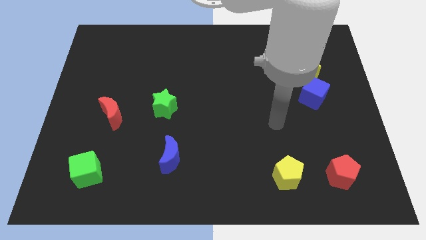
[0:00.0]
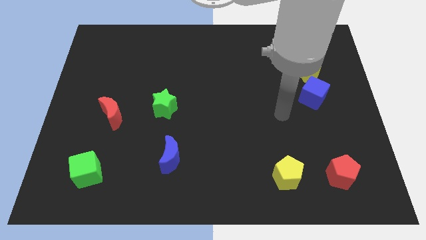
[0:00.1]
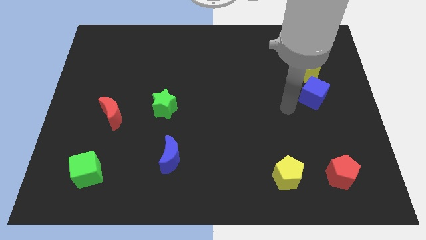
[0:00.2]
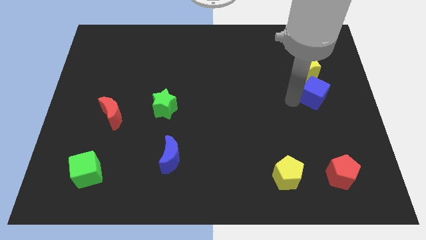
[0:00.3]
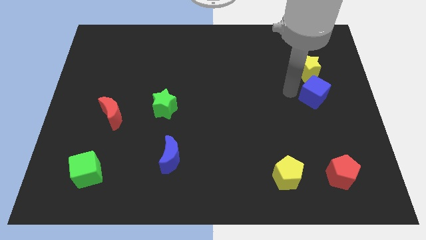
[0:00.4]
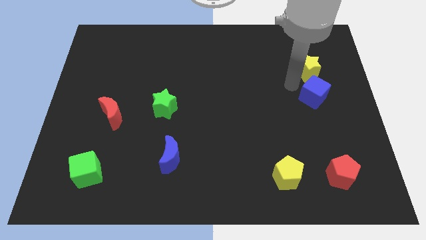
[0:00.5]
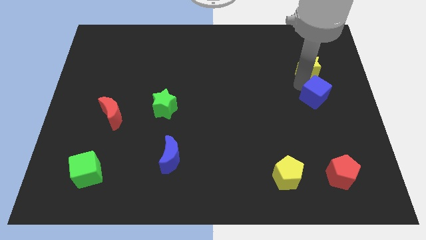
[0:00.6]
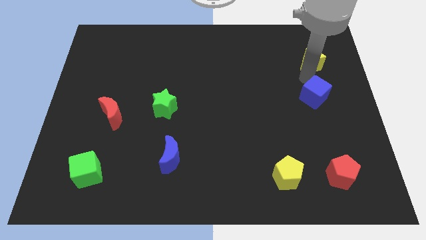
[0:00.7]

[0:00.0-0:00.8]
move the blue cube away from the yellow star

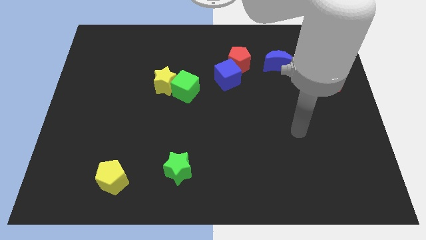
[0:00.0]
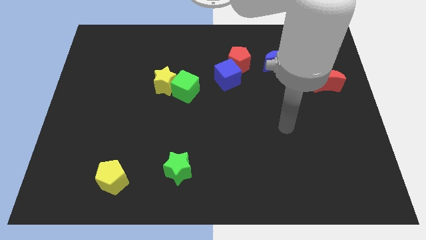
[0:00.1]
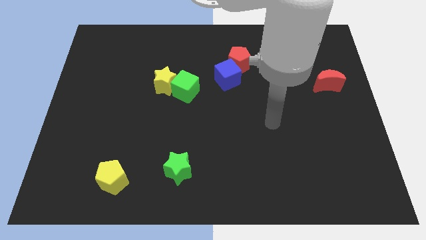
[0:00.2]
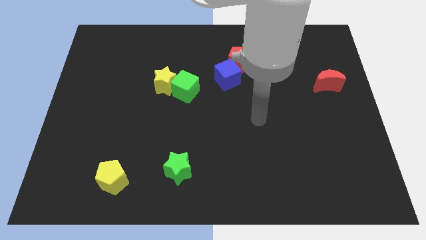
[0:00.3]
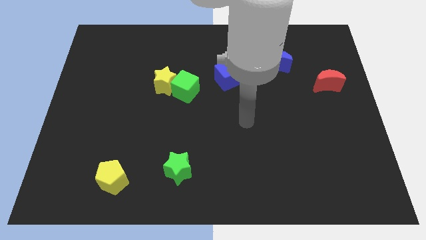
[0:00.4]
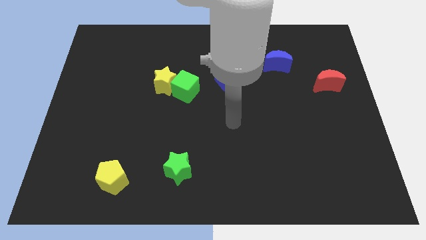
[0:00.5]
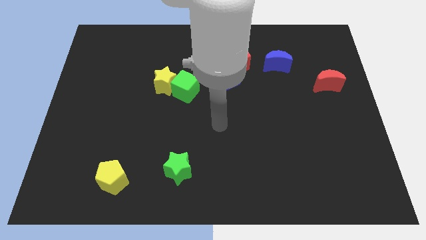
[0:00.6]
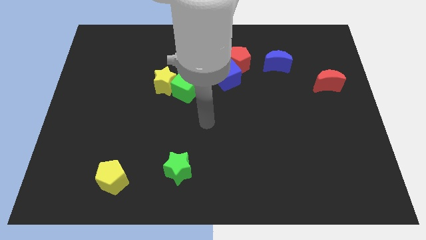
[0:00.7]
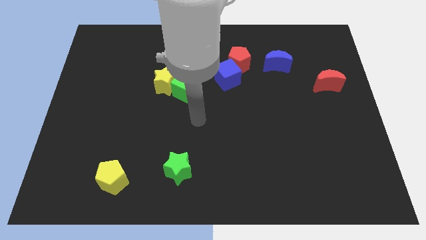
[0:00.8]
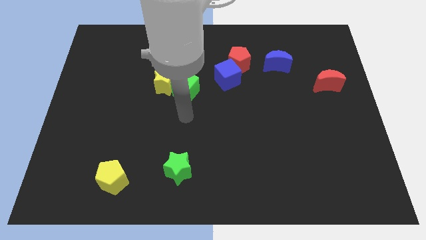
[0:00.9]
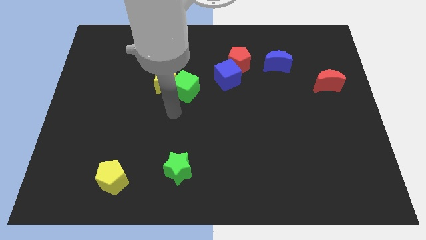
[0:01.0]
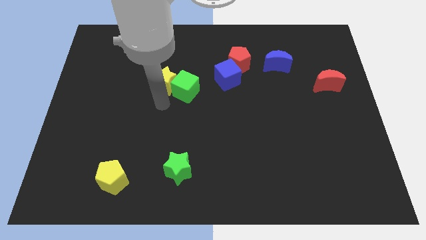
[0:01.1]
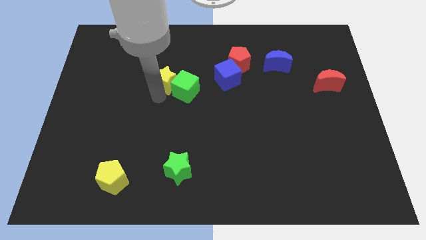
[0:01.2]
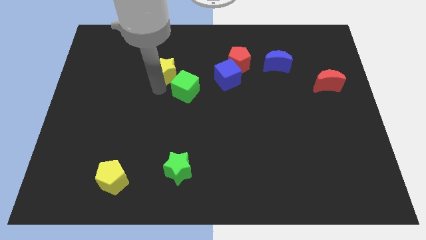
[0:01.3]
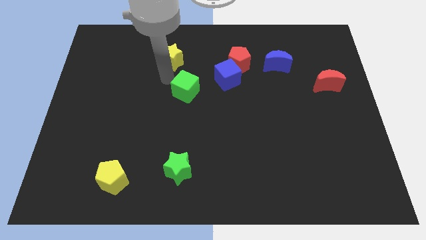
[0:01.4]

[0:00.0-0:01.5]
separate the green cube from the yellow star

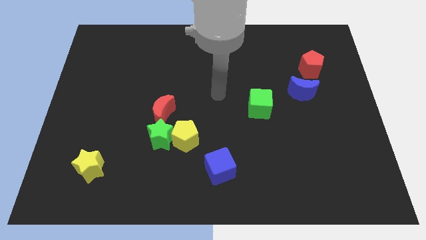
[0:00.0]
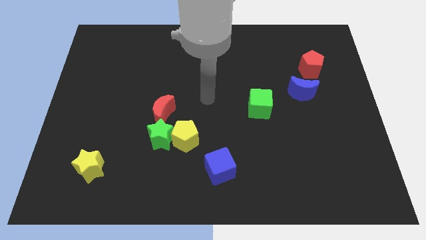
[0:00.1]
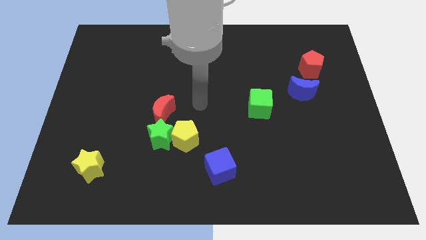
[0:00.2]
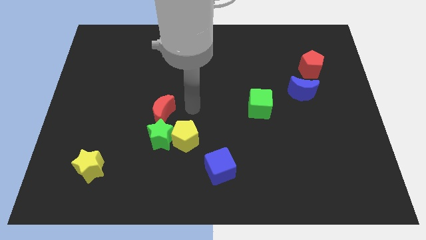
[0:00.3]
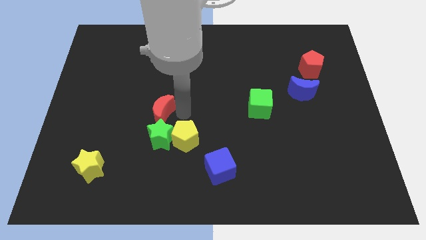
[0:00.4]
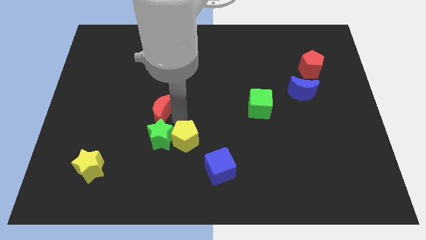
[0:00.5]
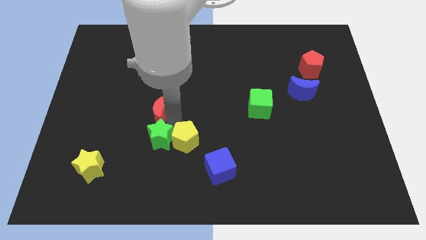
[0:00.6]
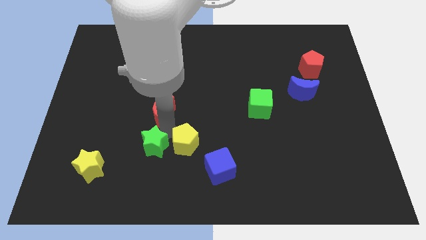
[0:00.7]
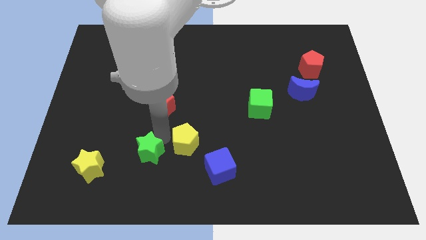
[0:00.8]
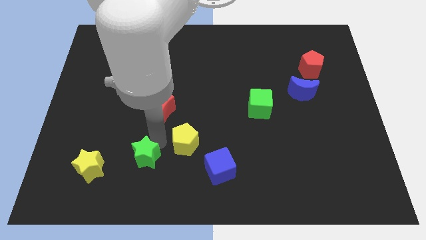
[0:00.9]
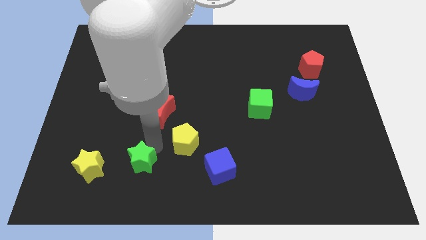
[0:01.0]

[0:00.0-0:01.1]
separate the green star from the yellow pentagon and red moon

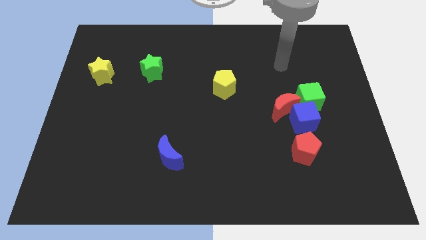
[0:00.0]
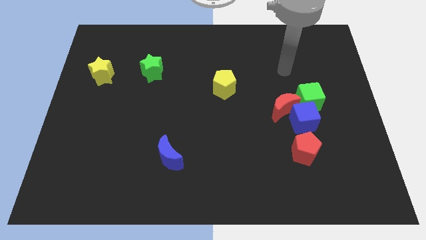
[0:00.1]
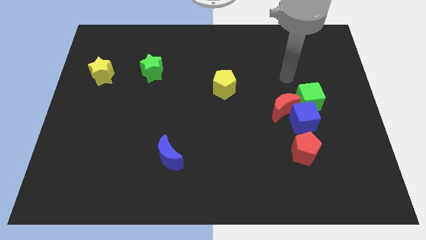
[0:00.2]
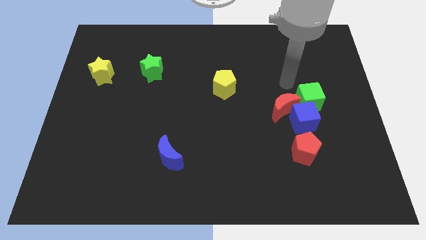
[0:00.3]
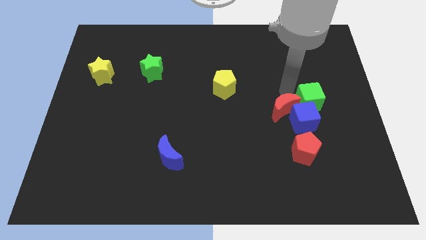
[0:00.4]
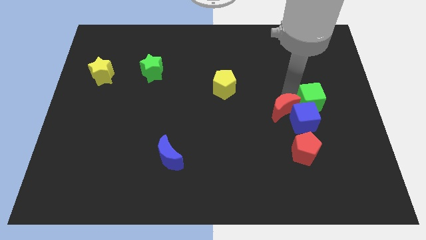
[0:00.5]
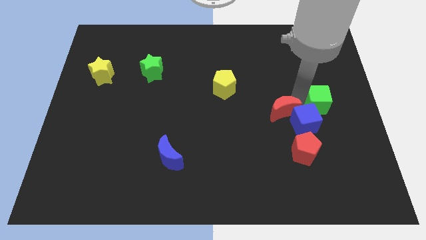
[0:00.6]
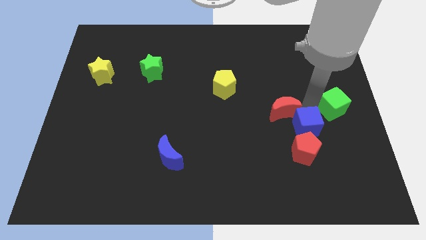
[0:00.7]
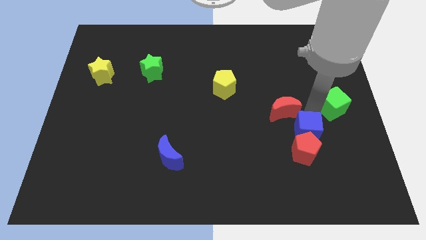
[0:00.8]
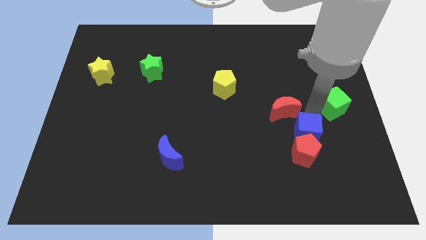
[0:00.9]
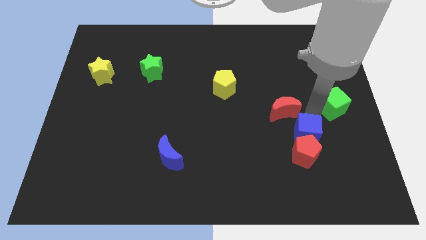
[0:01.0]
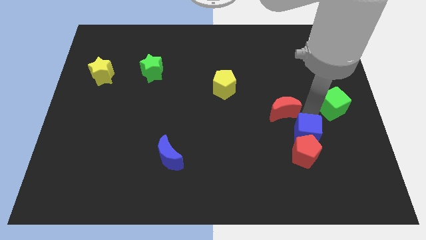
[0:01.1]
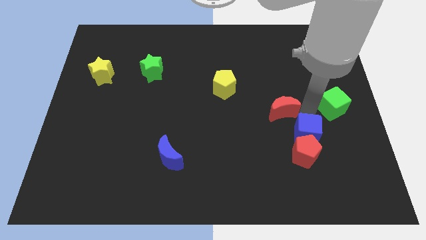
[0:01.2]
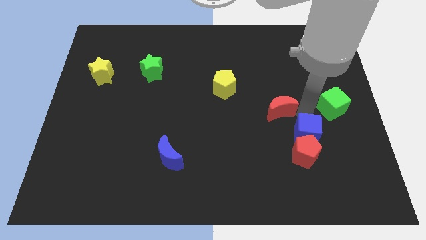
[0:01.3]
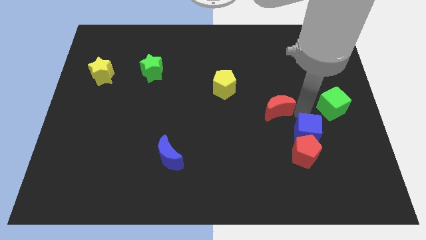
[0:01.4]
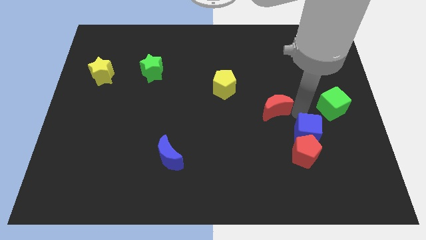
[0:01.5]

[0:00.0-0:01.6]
pull the red moon apart from the blue cube and green cube

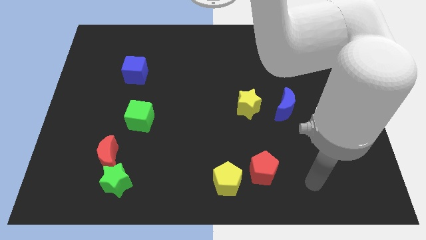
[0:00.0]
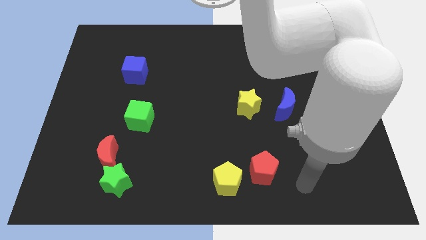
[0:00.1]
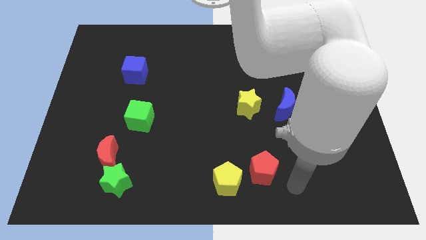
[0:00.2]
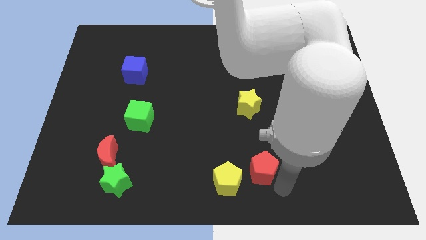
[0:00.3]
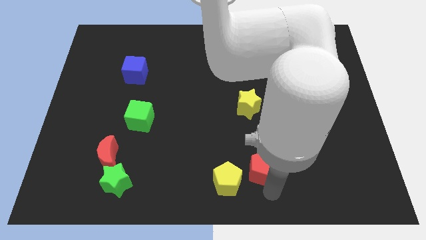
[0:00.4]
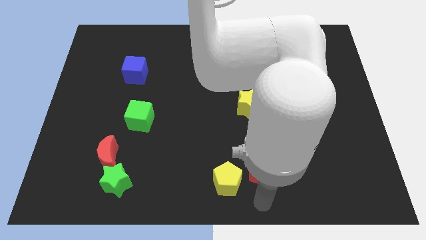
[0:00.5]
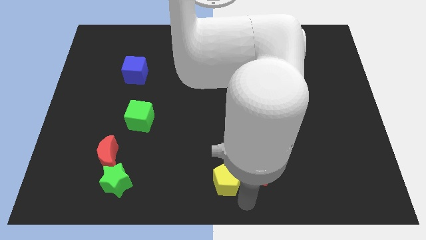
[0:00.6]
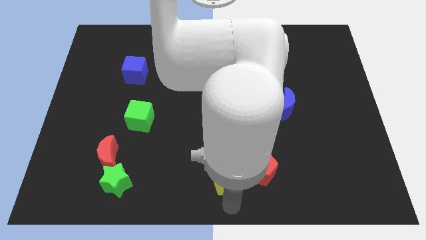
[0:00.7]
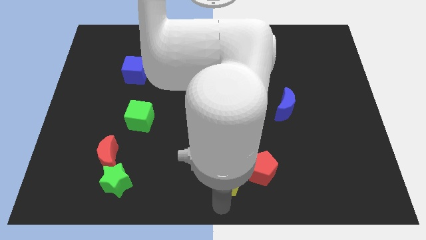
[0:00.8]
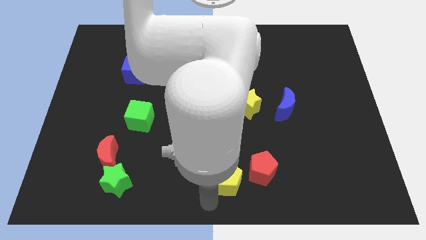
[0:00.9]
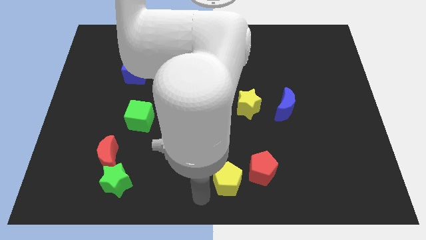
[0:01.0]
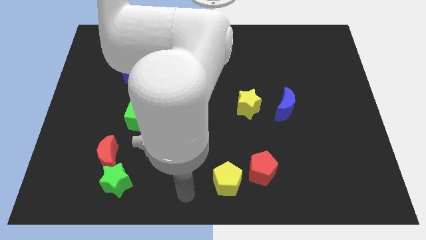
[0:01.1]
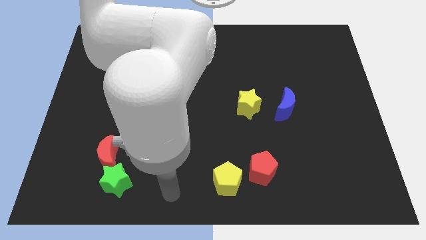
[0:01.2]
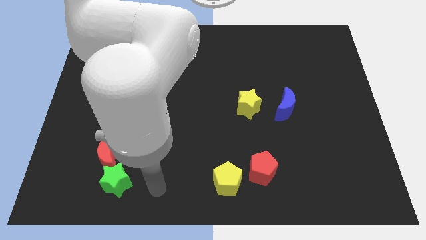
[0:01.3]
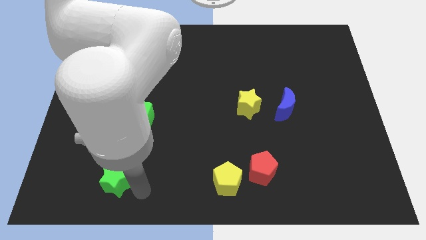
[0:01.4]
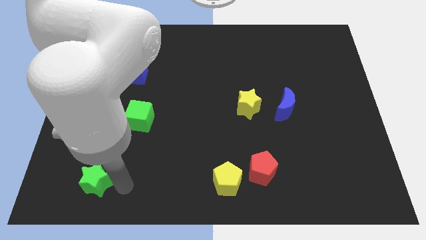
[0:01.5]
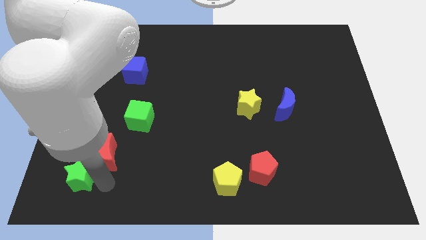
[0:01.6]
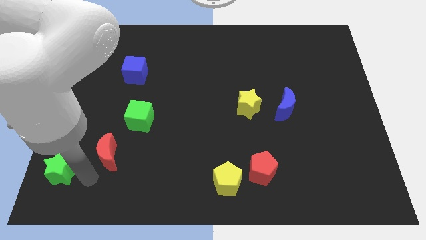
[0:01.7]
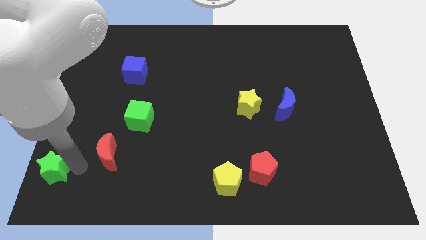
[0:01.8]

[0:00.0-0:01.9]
separate the red moon from the green star

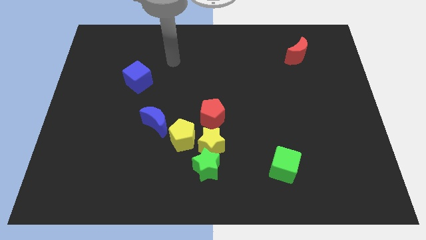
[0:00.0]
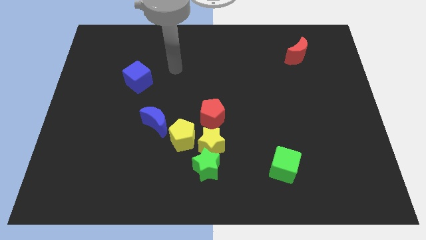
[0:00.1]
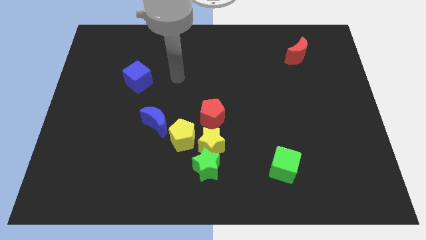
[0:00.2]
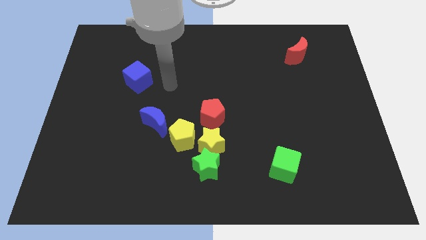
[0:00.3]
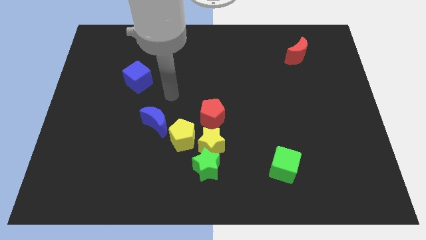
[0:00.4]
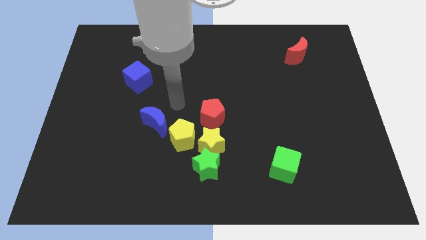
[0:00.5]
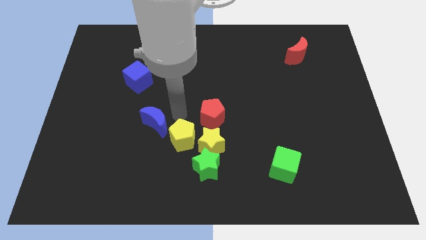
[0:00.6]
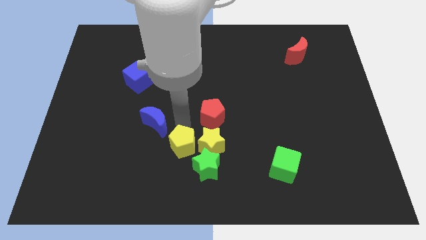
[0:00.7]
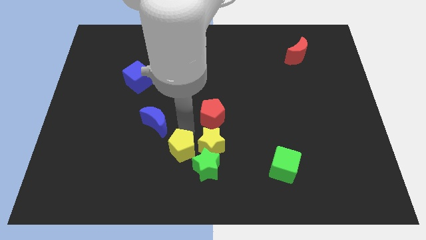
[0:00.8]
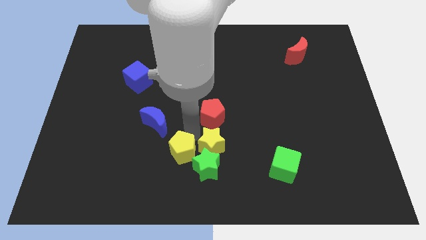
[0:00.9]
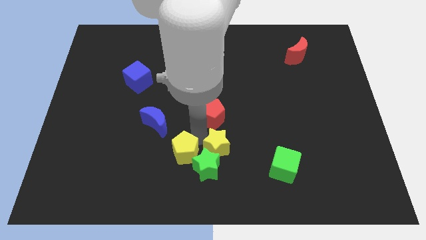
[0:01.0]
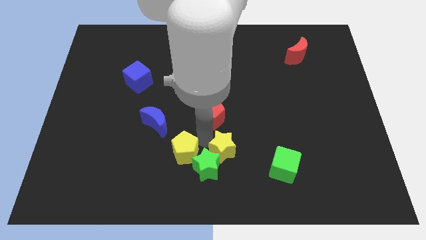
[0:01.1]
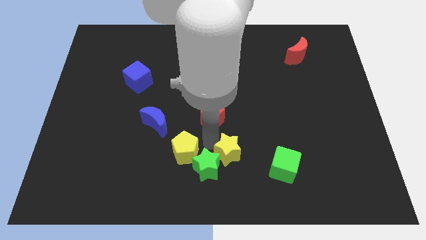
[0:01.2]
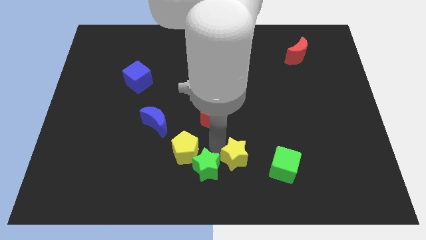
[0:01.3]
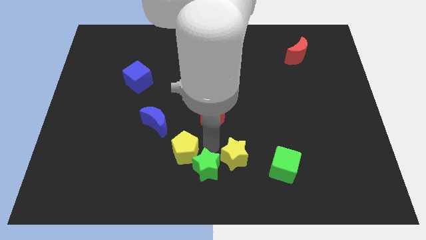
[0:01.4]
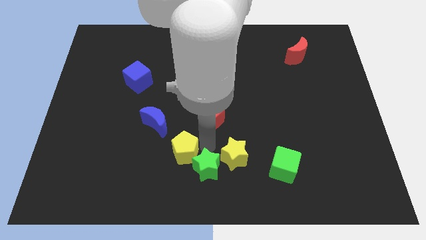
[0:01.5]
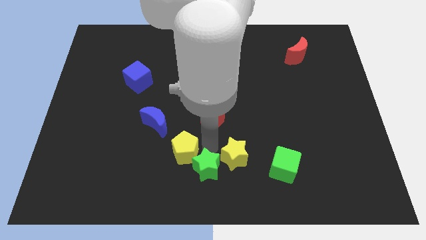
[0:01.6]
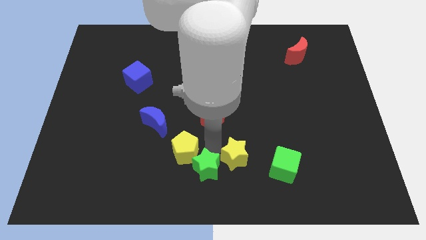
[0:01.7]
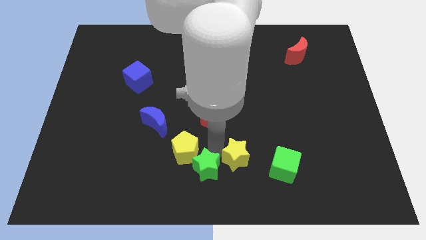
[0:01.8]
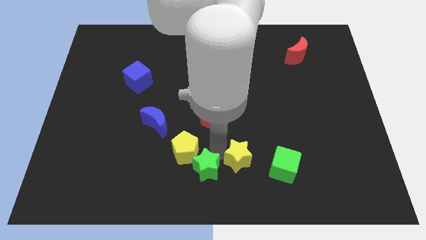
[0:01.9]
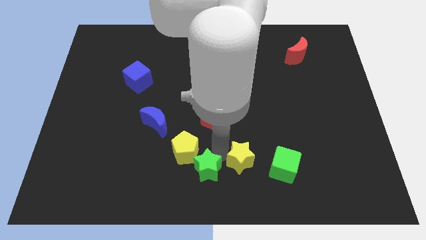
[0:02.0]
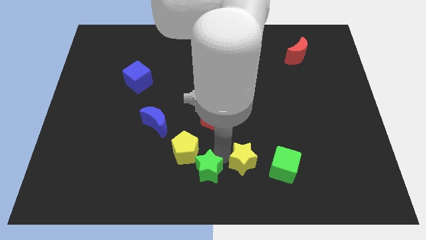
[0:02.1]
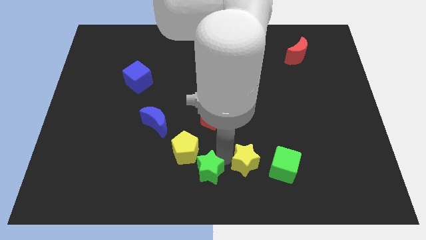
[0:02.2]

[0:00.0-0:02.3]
pull the yellow star apart from the green star, yellow pentagon, and red pentagon
